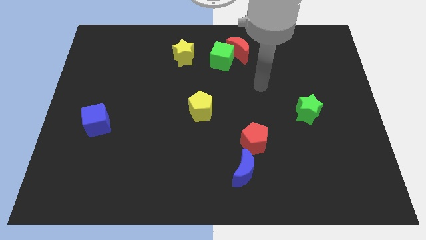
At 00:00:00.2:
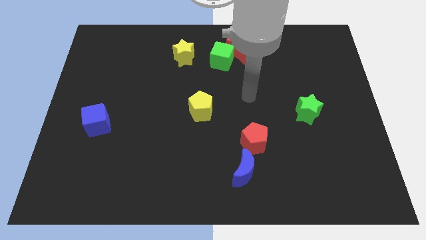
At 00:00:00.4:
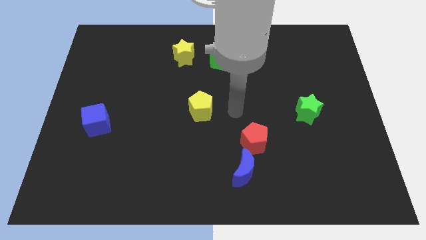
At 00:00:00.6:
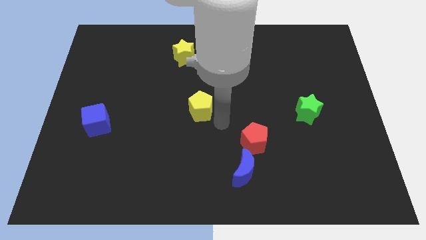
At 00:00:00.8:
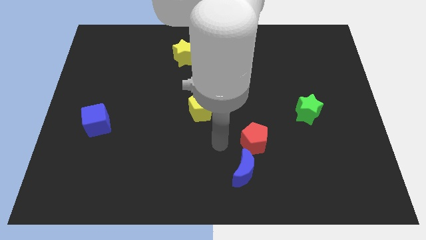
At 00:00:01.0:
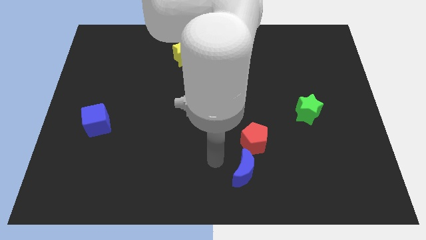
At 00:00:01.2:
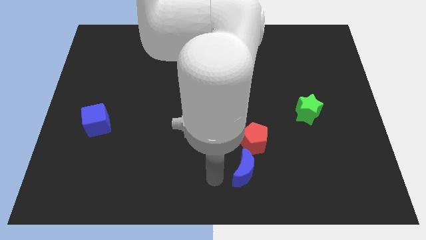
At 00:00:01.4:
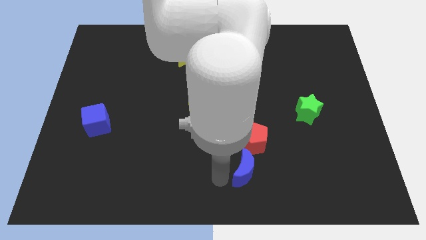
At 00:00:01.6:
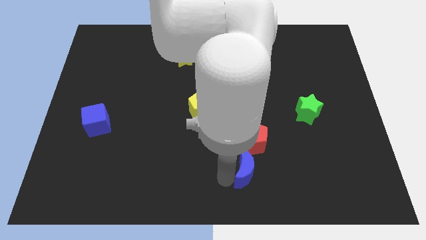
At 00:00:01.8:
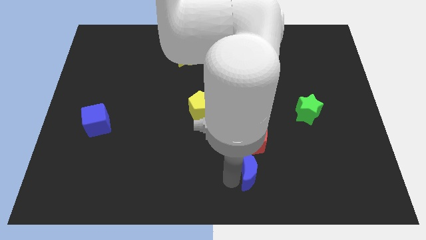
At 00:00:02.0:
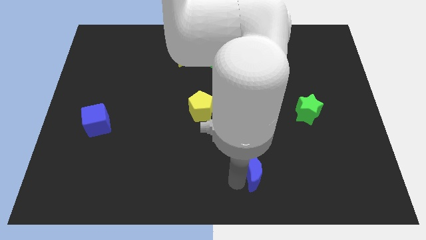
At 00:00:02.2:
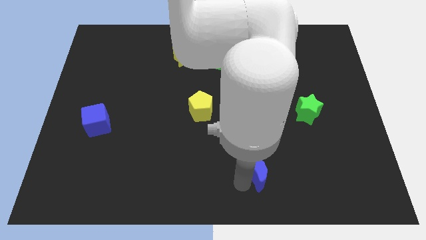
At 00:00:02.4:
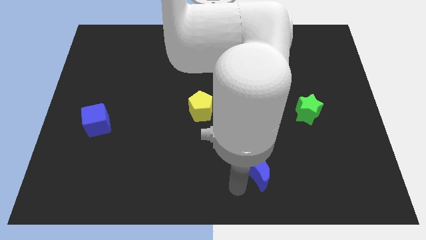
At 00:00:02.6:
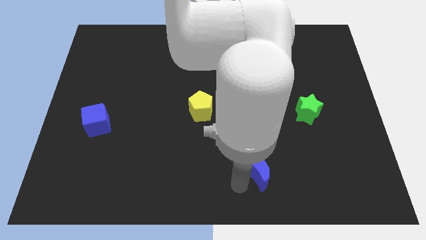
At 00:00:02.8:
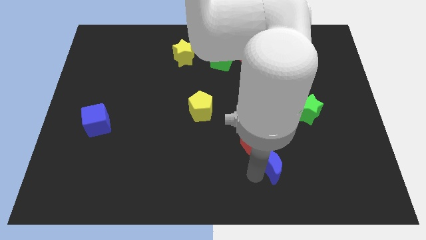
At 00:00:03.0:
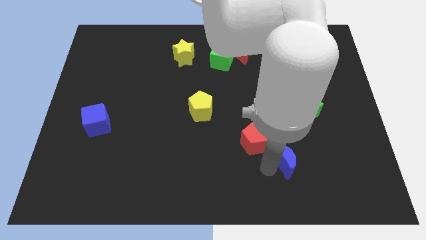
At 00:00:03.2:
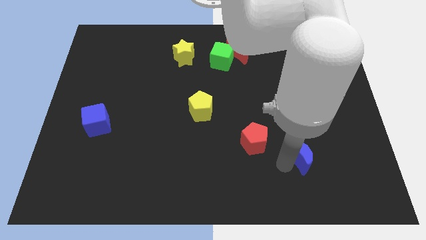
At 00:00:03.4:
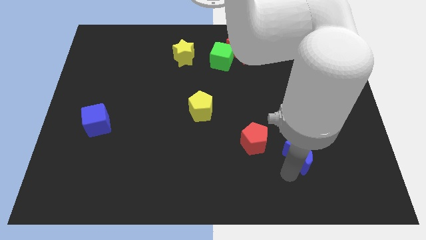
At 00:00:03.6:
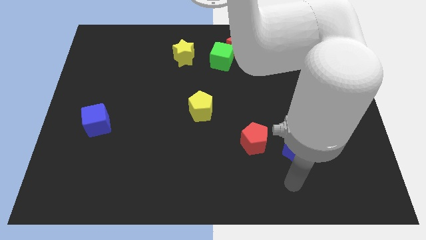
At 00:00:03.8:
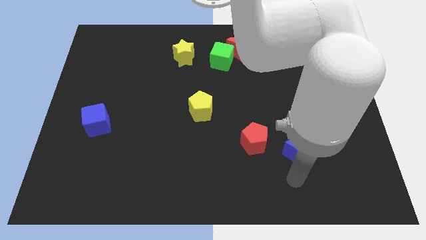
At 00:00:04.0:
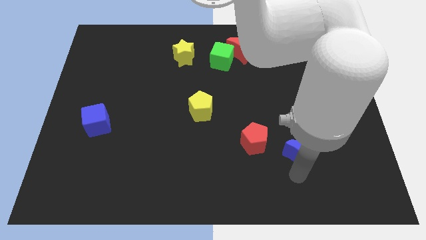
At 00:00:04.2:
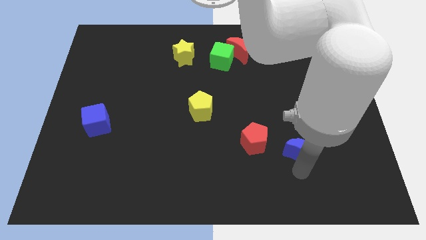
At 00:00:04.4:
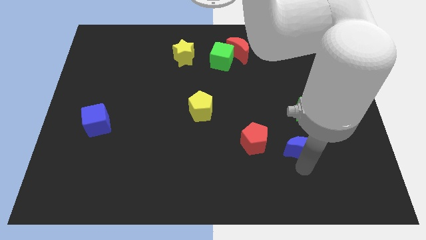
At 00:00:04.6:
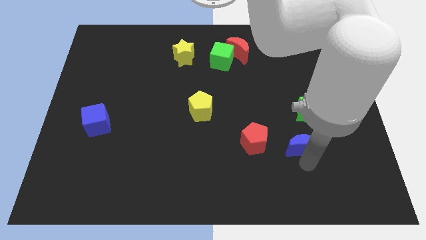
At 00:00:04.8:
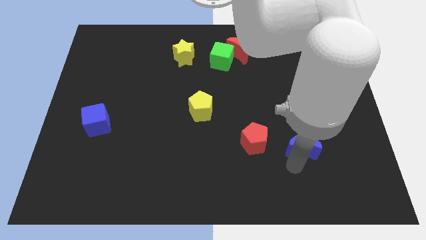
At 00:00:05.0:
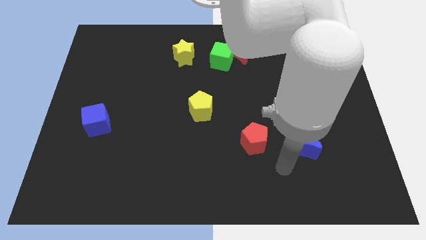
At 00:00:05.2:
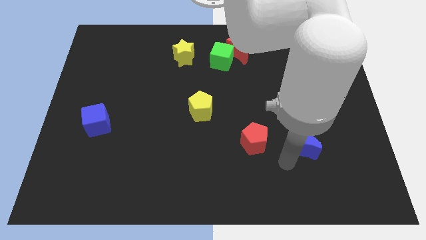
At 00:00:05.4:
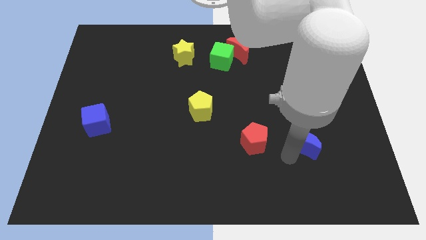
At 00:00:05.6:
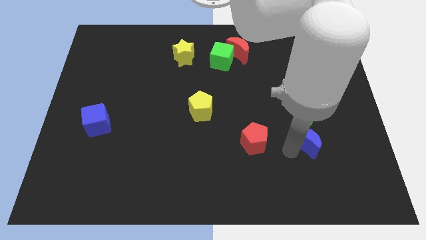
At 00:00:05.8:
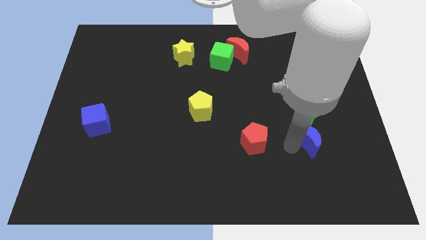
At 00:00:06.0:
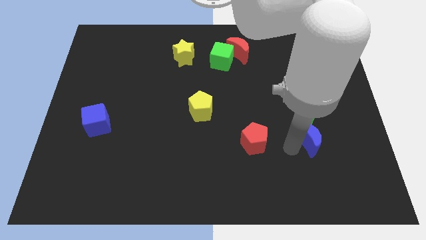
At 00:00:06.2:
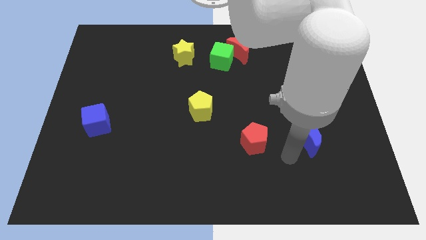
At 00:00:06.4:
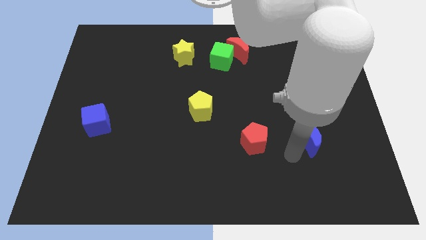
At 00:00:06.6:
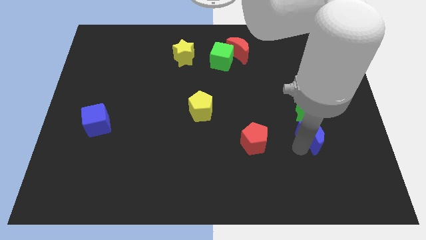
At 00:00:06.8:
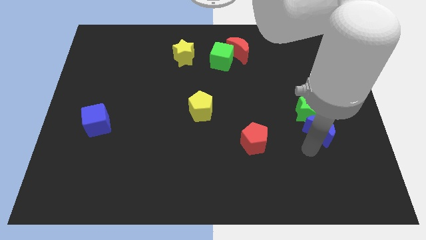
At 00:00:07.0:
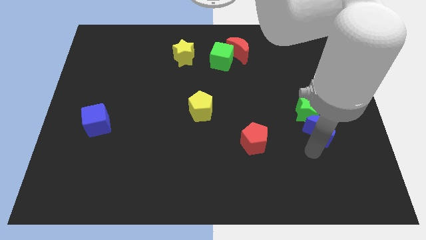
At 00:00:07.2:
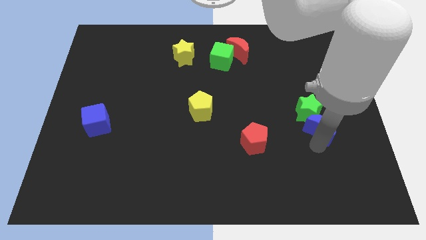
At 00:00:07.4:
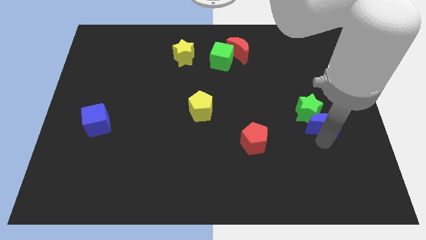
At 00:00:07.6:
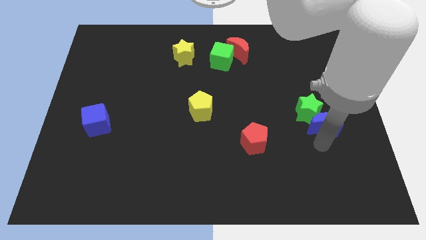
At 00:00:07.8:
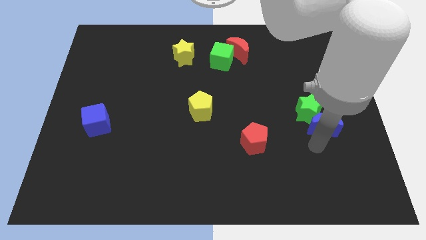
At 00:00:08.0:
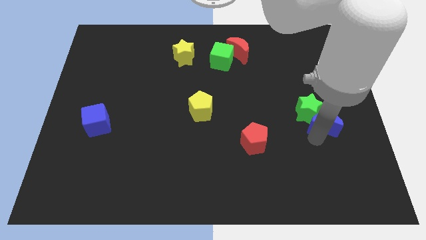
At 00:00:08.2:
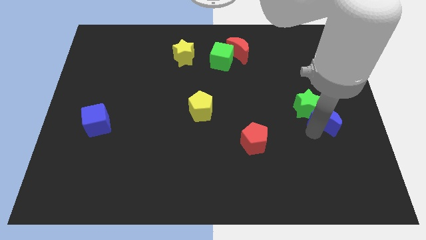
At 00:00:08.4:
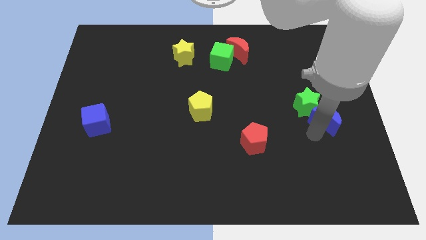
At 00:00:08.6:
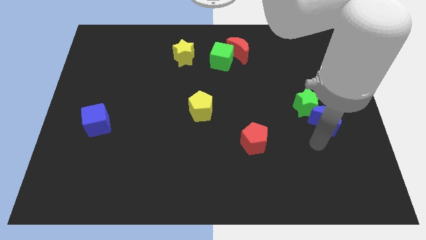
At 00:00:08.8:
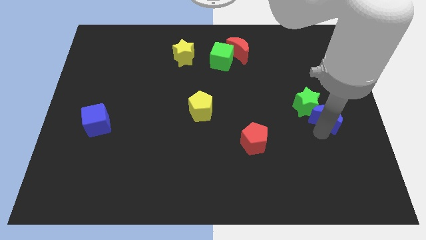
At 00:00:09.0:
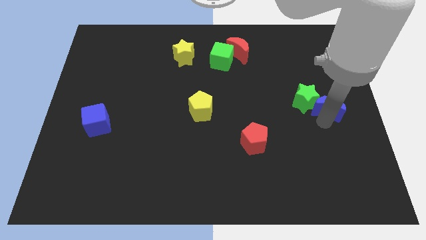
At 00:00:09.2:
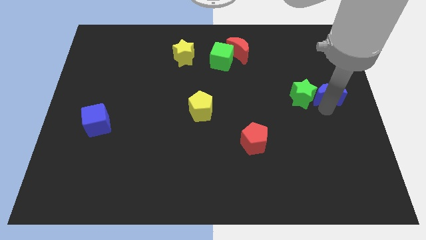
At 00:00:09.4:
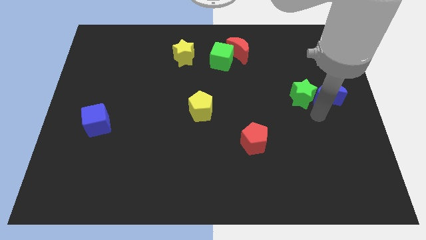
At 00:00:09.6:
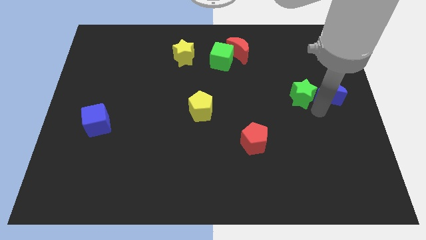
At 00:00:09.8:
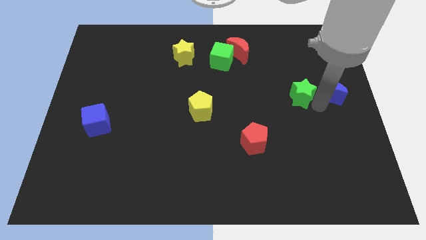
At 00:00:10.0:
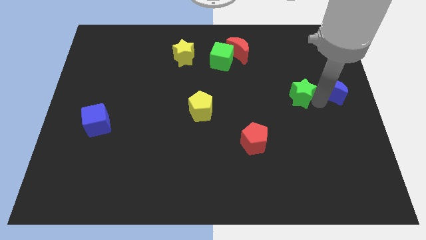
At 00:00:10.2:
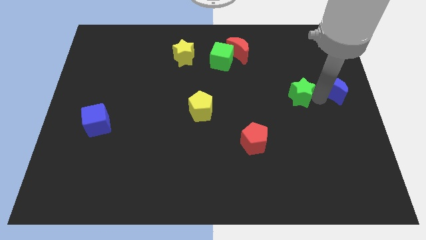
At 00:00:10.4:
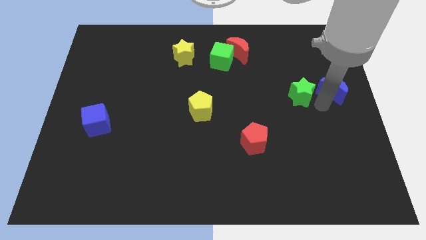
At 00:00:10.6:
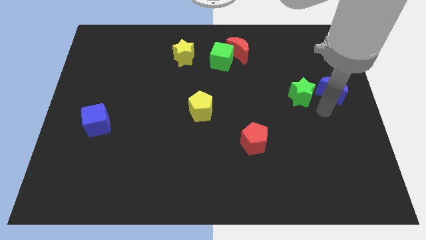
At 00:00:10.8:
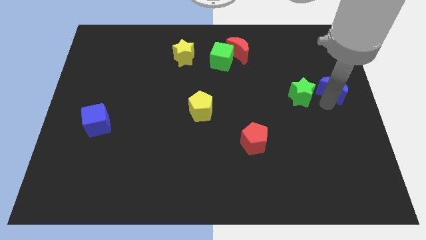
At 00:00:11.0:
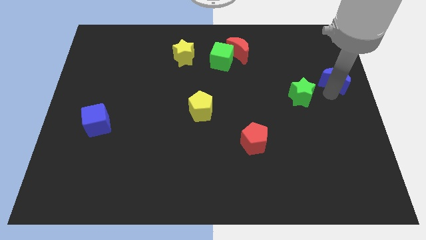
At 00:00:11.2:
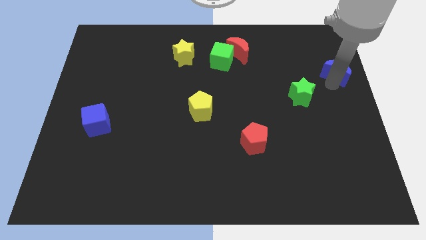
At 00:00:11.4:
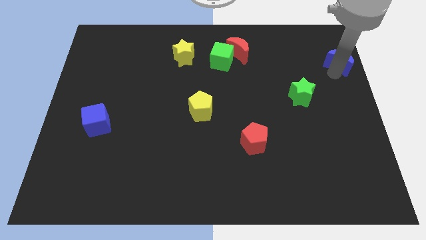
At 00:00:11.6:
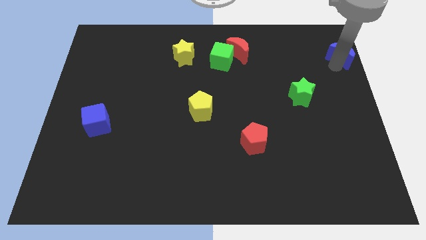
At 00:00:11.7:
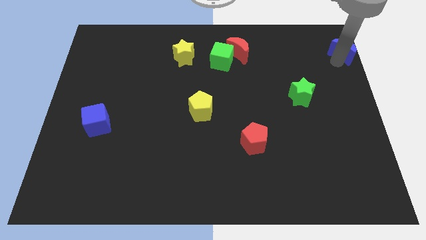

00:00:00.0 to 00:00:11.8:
slide the blue moon to the top right of the board

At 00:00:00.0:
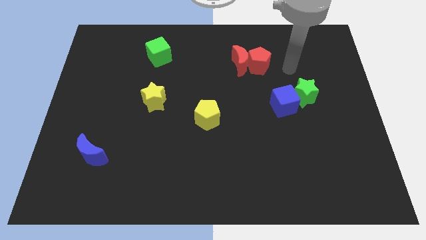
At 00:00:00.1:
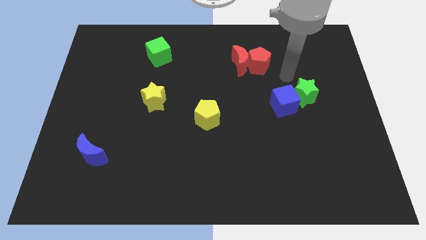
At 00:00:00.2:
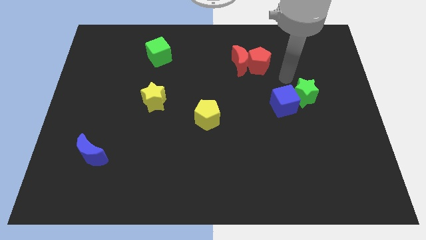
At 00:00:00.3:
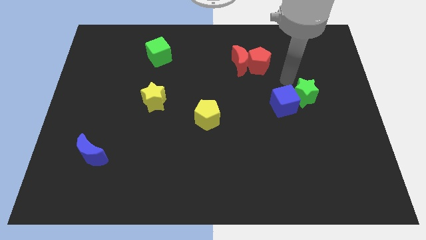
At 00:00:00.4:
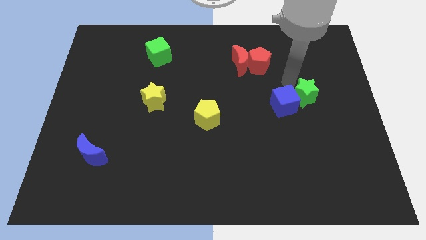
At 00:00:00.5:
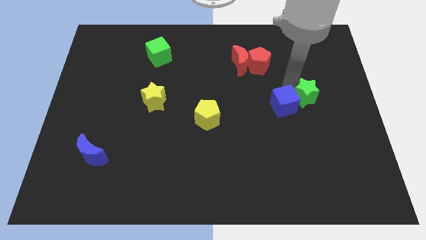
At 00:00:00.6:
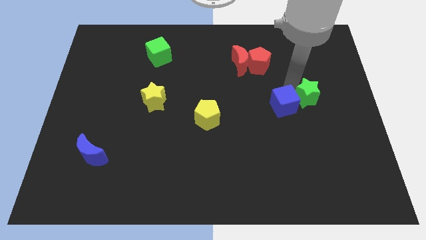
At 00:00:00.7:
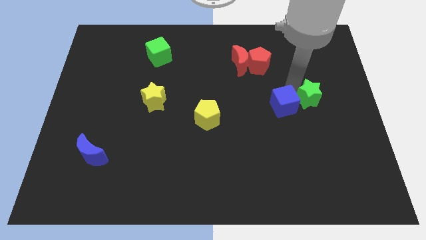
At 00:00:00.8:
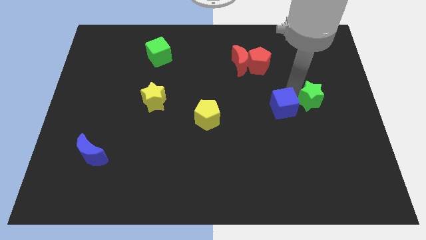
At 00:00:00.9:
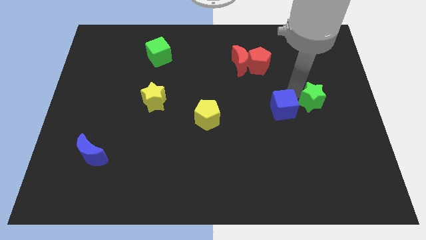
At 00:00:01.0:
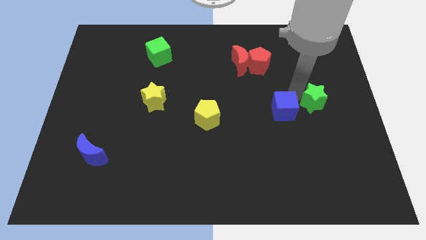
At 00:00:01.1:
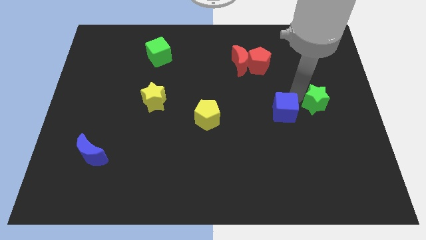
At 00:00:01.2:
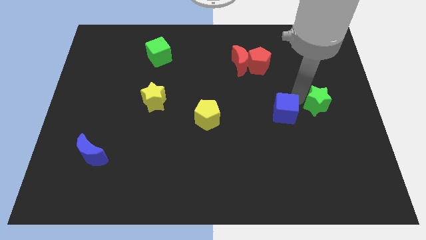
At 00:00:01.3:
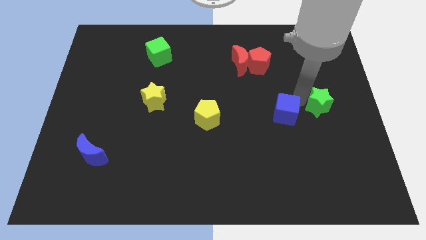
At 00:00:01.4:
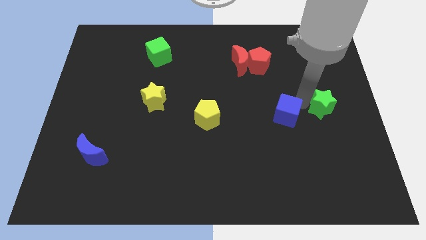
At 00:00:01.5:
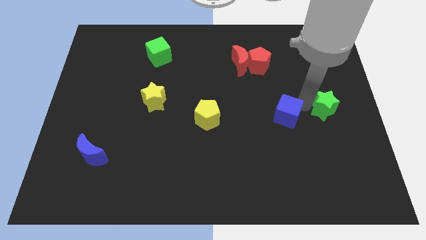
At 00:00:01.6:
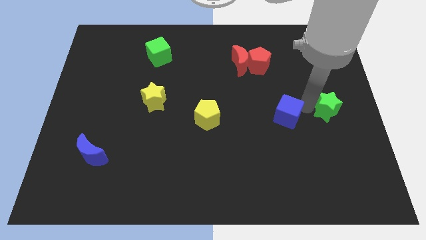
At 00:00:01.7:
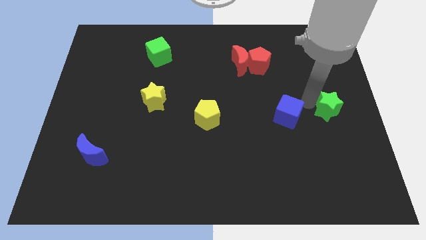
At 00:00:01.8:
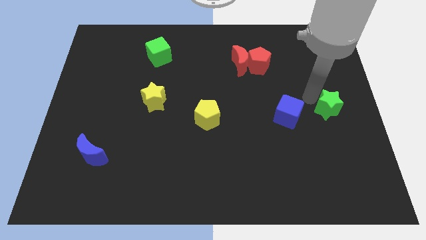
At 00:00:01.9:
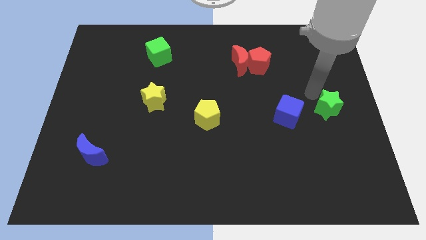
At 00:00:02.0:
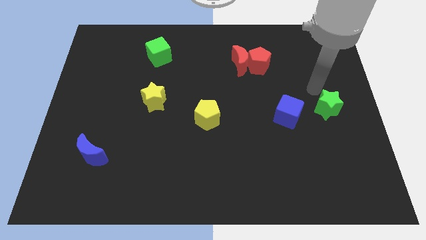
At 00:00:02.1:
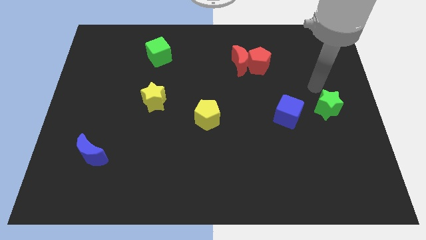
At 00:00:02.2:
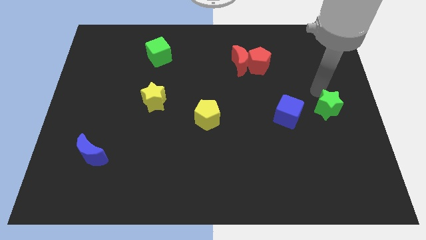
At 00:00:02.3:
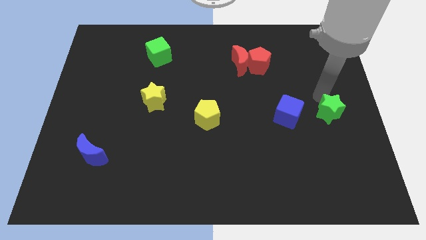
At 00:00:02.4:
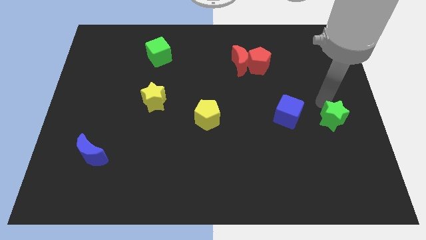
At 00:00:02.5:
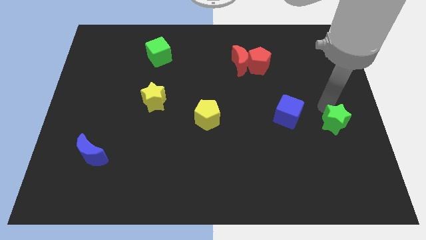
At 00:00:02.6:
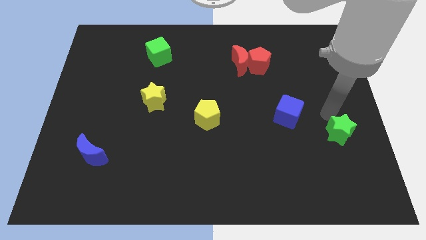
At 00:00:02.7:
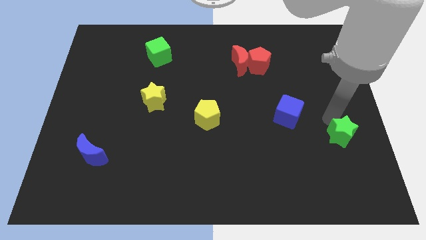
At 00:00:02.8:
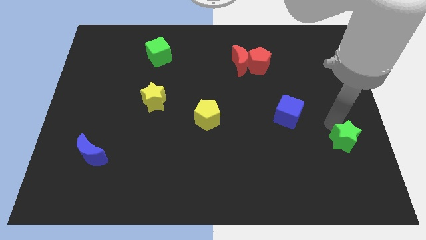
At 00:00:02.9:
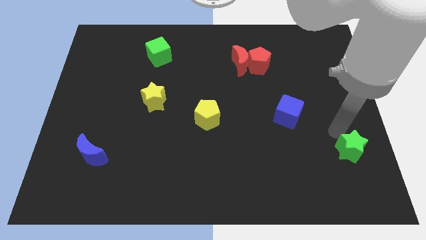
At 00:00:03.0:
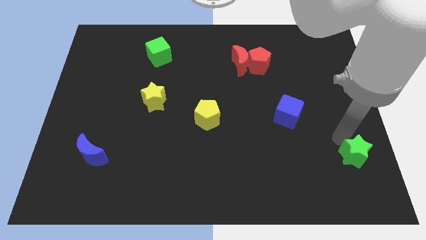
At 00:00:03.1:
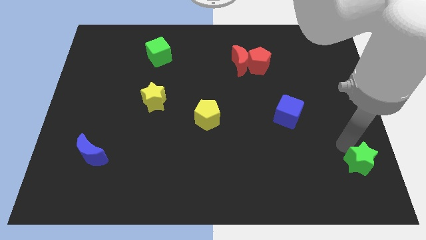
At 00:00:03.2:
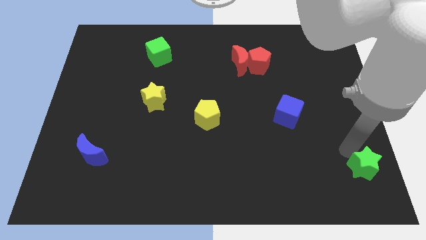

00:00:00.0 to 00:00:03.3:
push the green star to the bottom right
